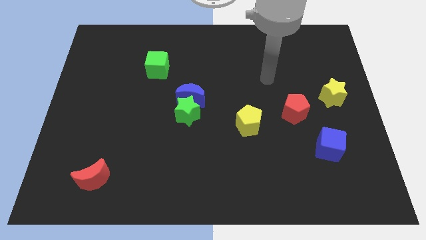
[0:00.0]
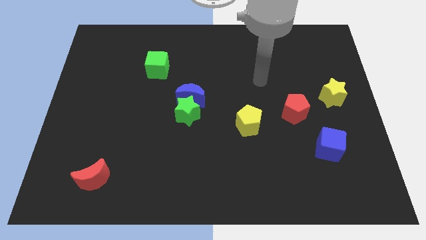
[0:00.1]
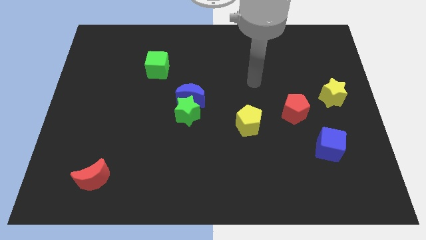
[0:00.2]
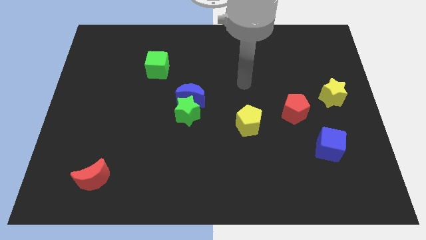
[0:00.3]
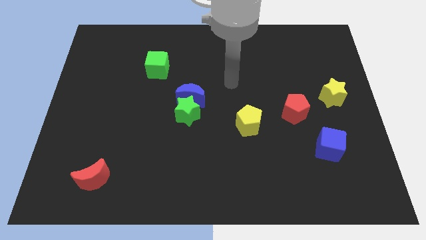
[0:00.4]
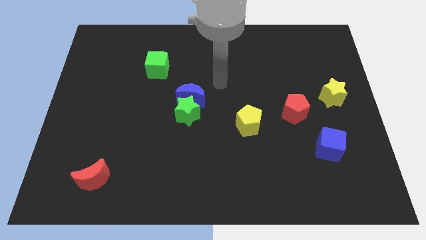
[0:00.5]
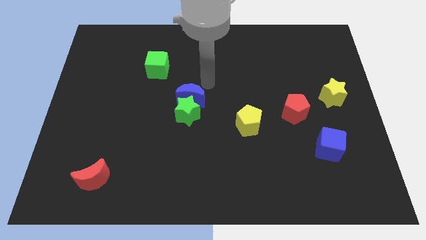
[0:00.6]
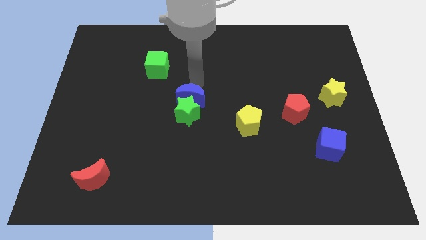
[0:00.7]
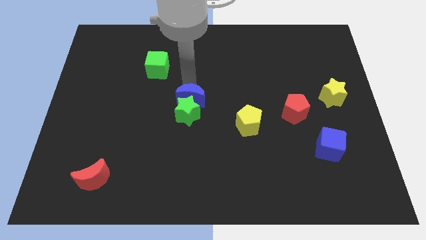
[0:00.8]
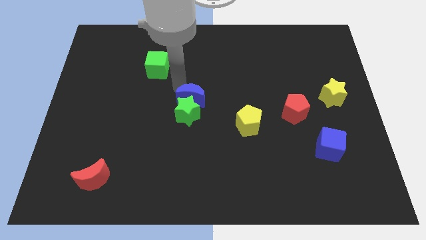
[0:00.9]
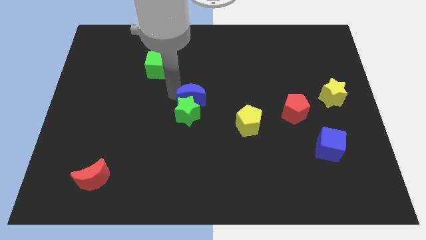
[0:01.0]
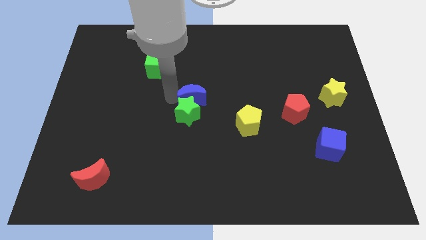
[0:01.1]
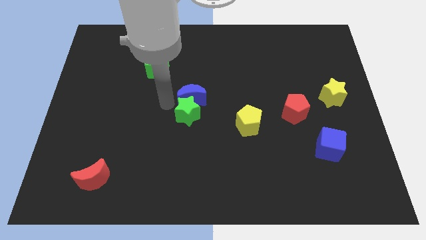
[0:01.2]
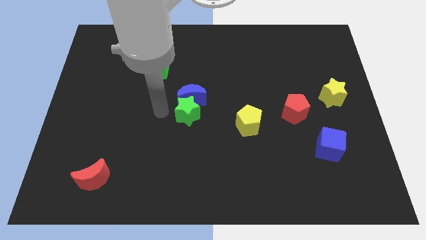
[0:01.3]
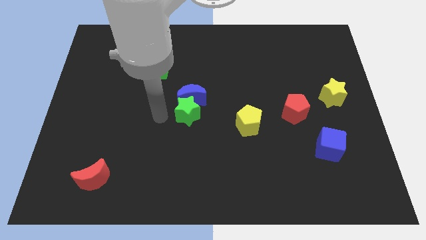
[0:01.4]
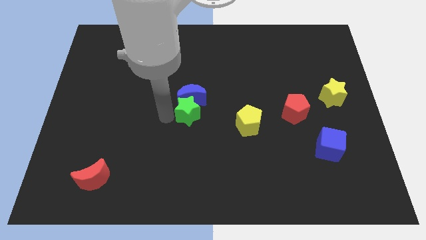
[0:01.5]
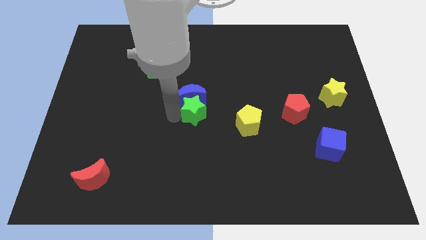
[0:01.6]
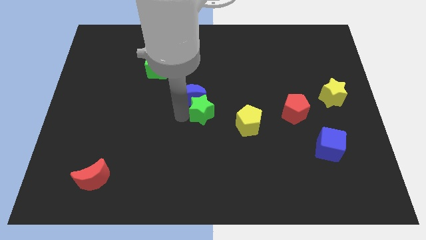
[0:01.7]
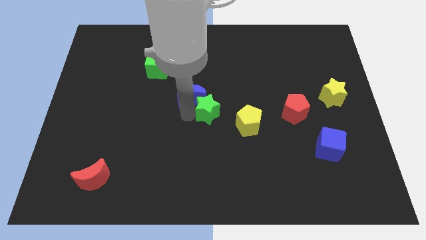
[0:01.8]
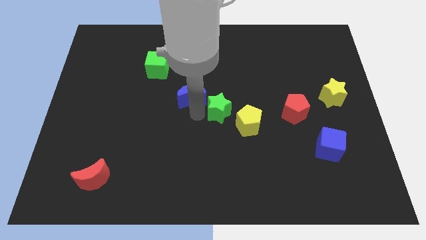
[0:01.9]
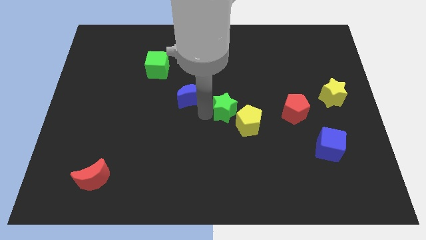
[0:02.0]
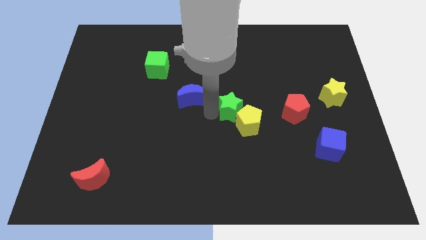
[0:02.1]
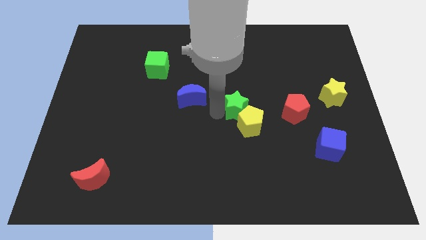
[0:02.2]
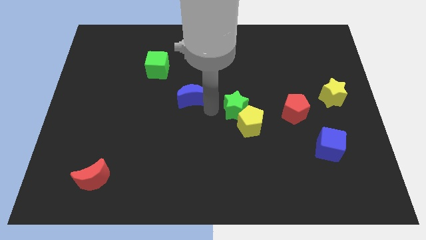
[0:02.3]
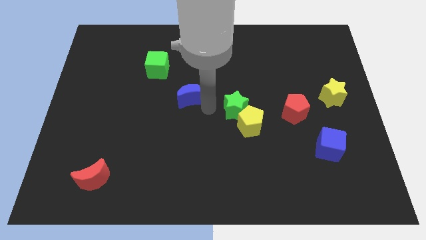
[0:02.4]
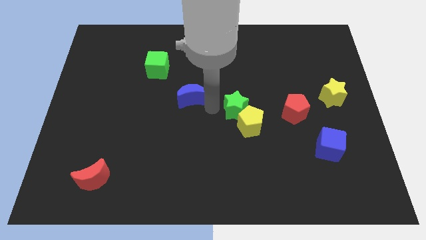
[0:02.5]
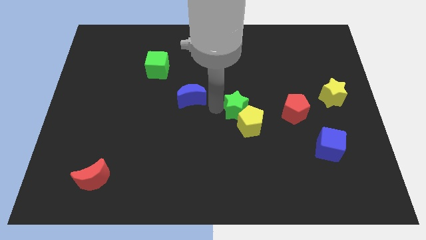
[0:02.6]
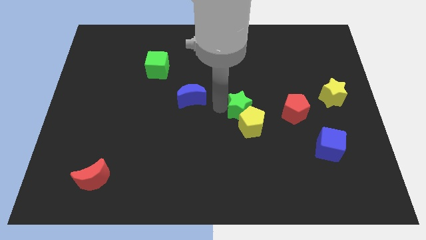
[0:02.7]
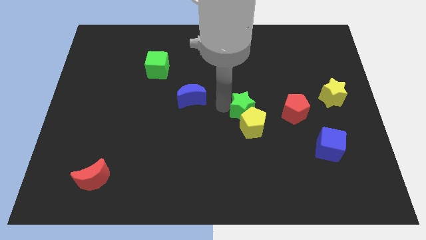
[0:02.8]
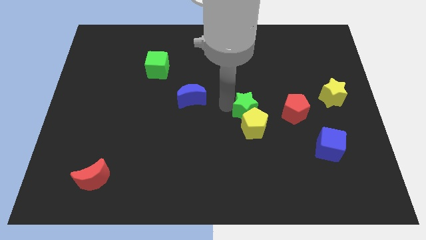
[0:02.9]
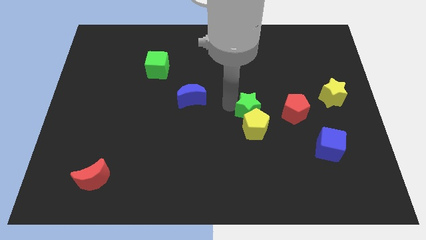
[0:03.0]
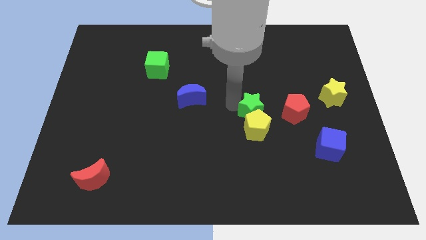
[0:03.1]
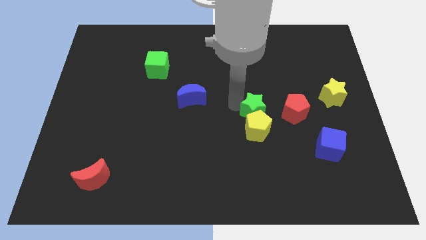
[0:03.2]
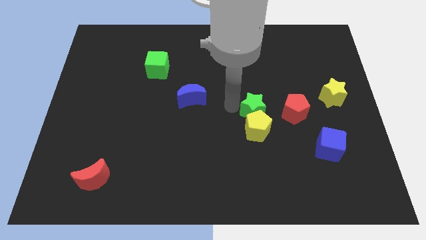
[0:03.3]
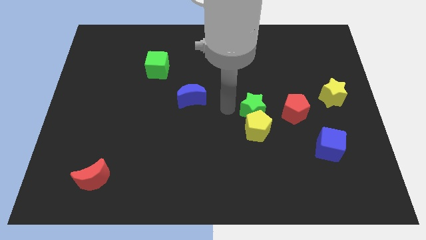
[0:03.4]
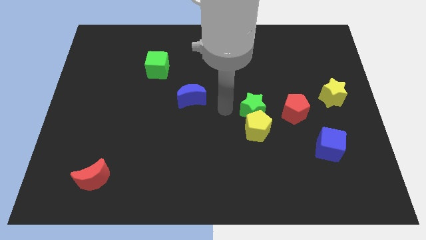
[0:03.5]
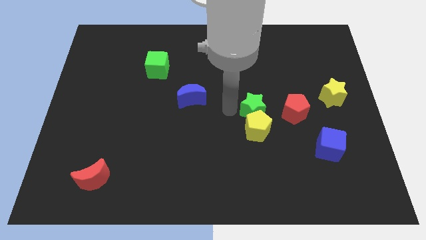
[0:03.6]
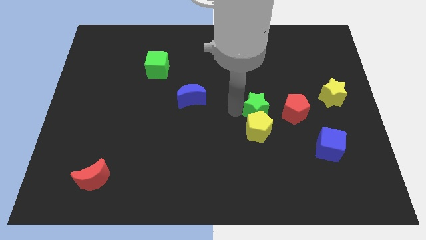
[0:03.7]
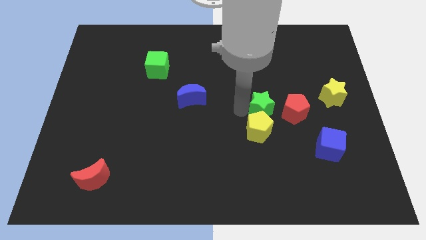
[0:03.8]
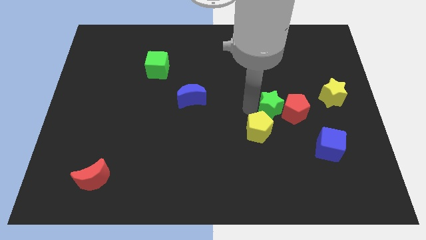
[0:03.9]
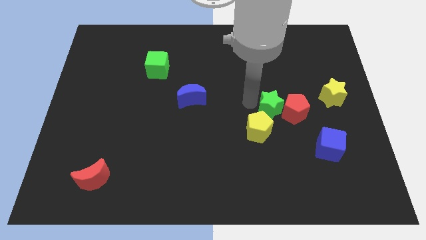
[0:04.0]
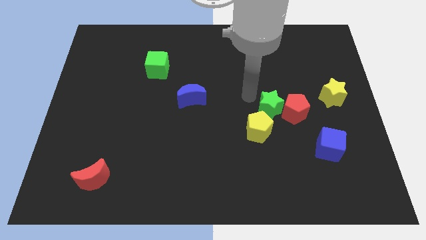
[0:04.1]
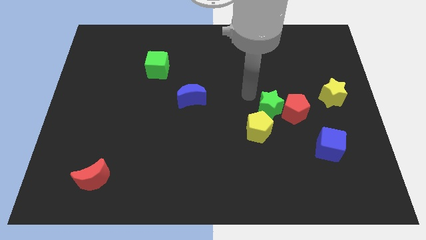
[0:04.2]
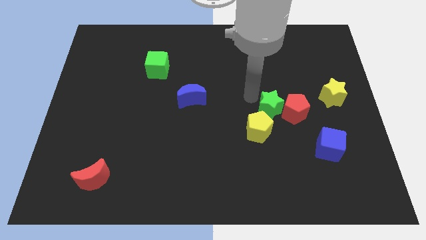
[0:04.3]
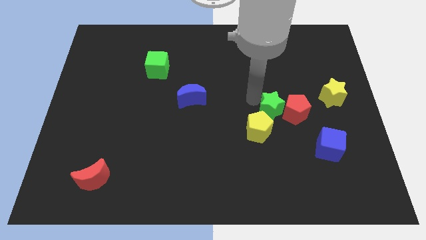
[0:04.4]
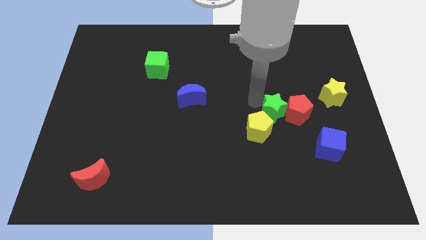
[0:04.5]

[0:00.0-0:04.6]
push the green star to the right

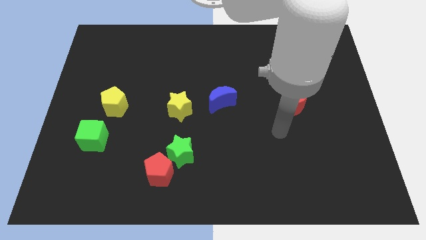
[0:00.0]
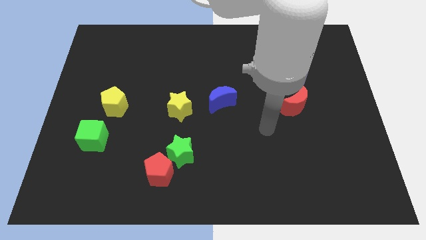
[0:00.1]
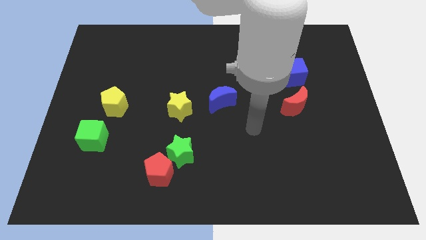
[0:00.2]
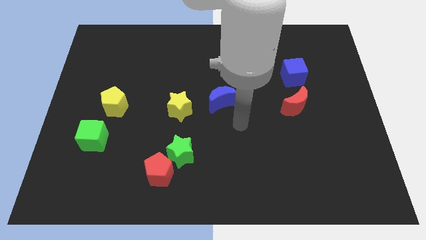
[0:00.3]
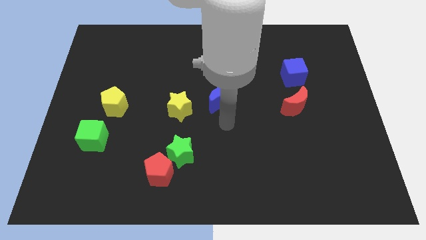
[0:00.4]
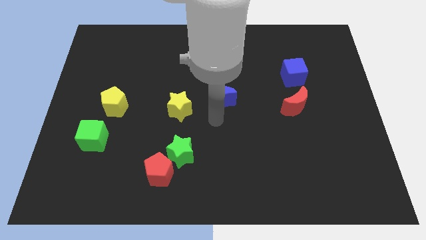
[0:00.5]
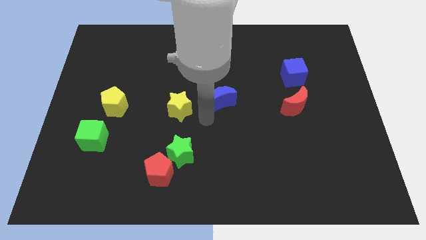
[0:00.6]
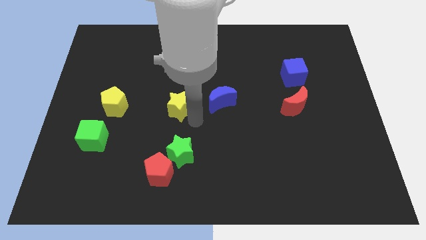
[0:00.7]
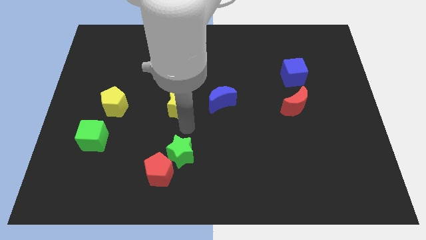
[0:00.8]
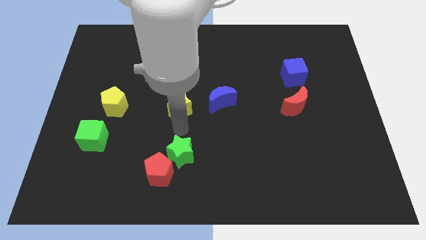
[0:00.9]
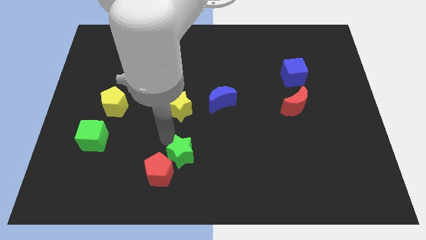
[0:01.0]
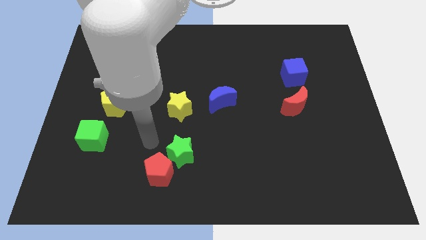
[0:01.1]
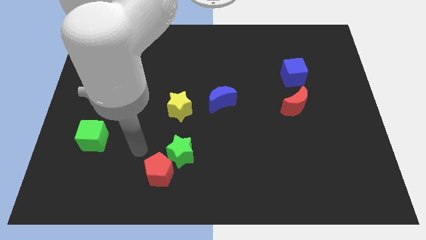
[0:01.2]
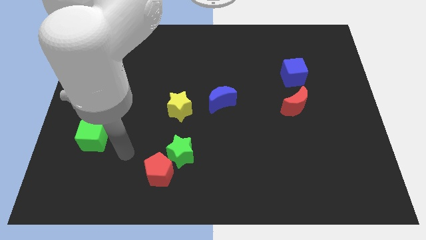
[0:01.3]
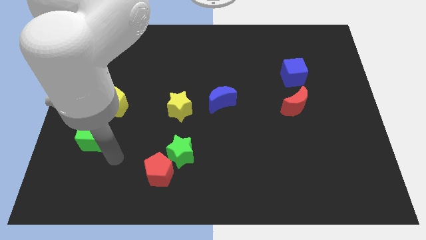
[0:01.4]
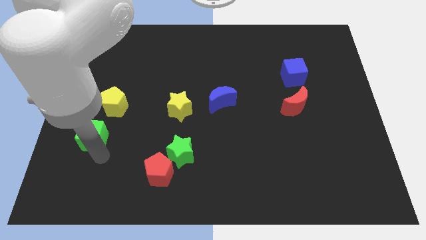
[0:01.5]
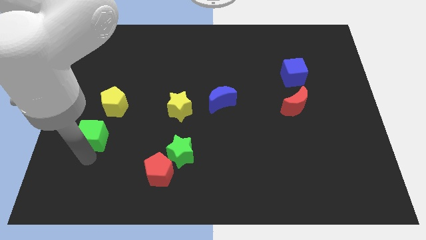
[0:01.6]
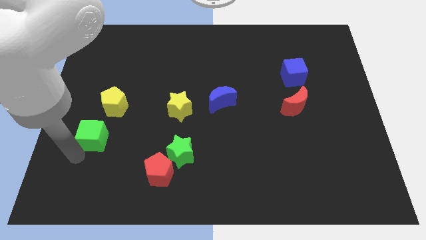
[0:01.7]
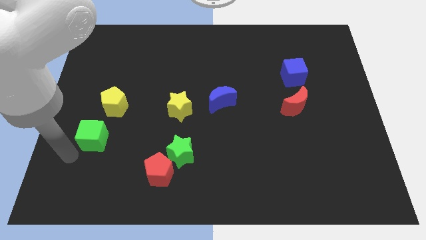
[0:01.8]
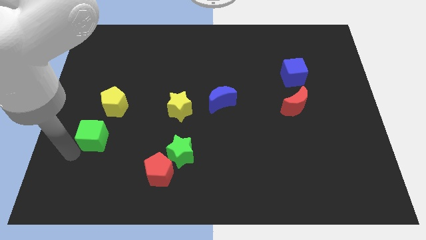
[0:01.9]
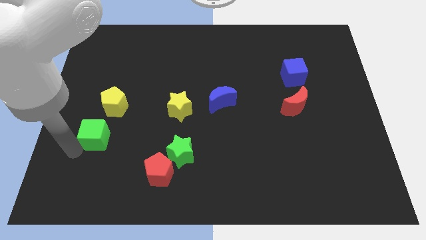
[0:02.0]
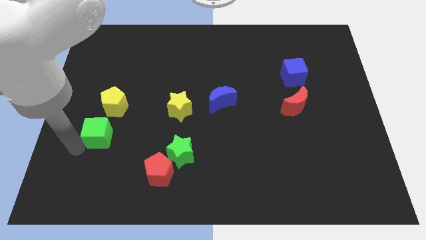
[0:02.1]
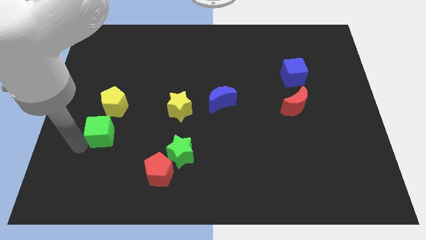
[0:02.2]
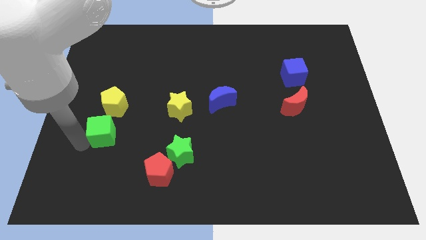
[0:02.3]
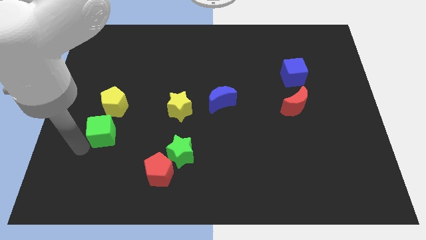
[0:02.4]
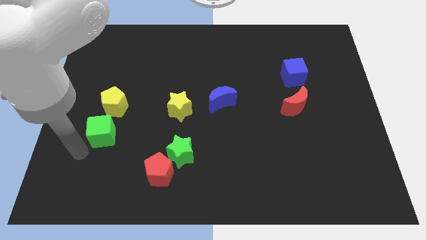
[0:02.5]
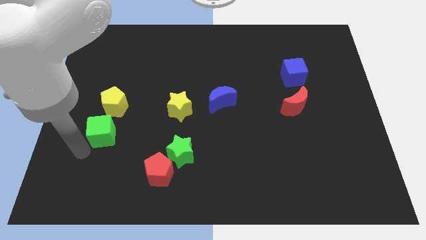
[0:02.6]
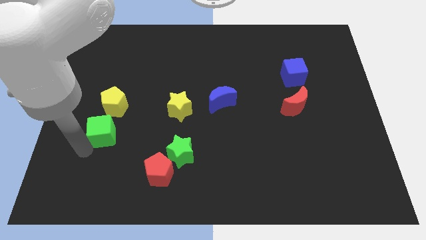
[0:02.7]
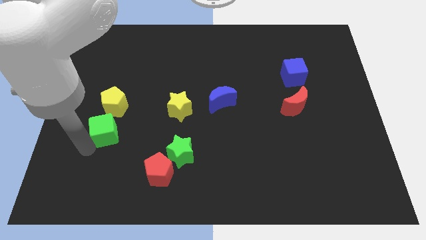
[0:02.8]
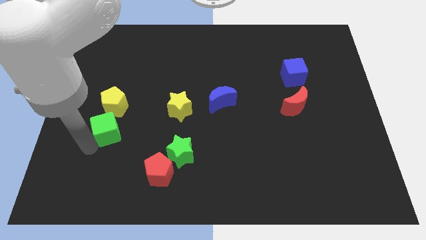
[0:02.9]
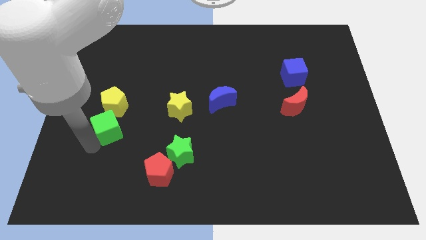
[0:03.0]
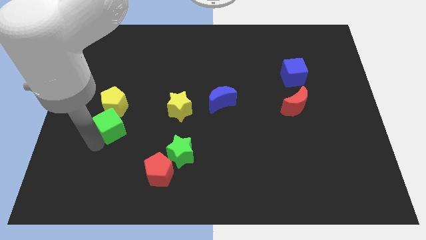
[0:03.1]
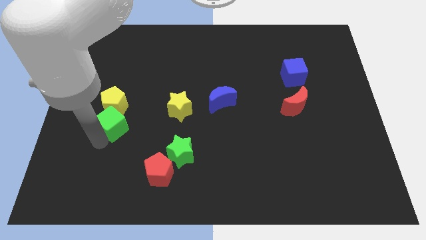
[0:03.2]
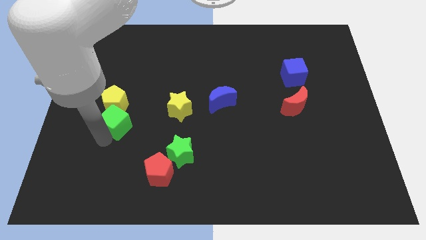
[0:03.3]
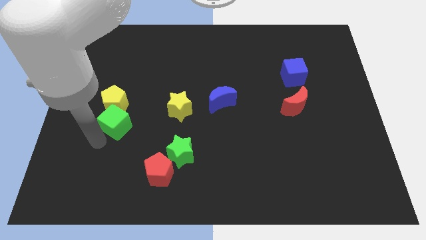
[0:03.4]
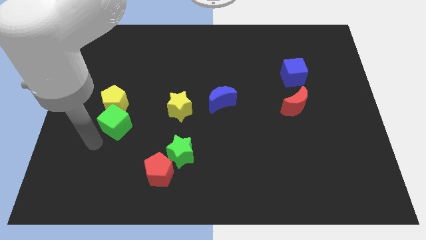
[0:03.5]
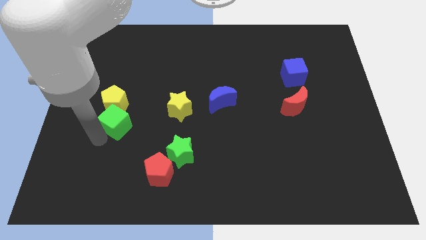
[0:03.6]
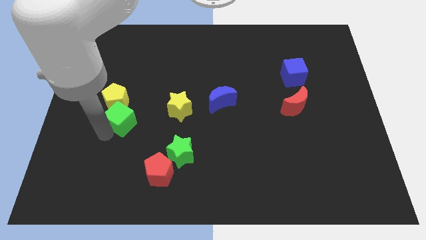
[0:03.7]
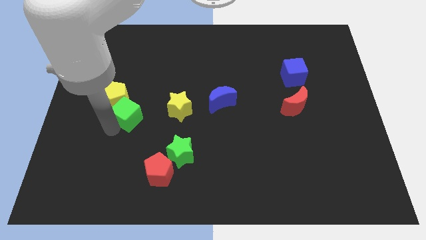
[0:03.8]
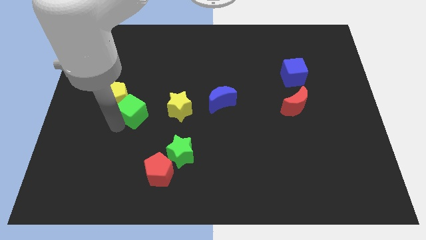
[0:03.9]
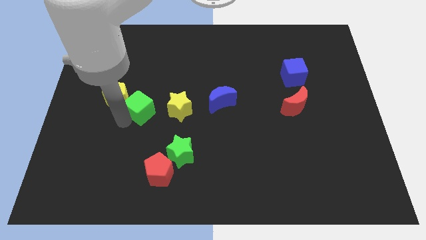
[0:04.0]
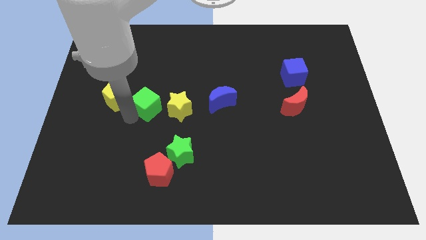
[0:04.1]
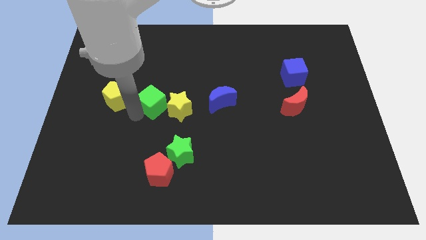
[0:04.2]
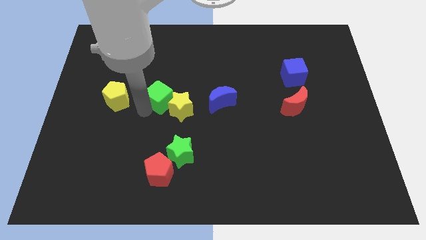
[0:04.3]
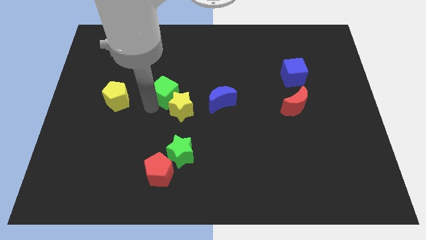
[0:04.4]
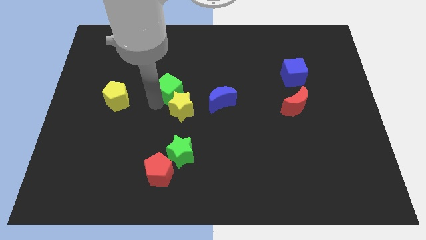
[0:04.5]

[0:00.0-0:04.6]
push the green cube upwards and then to the right
